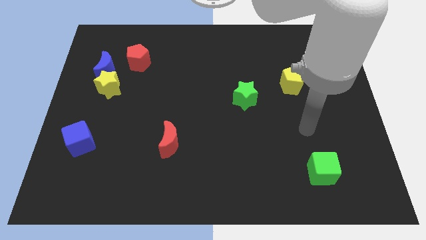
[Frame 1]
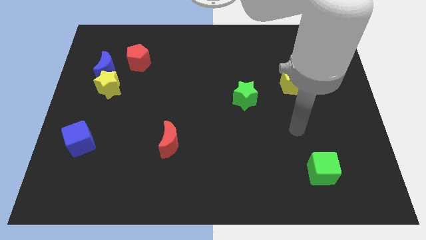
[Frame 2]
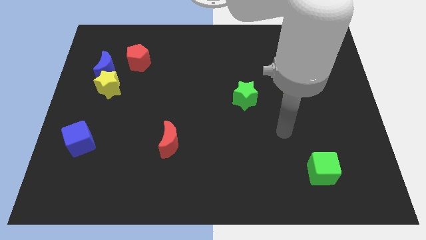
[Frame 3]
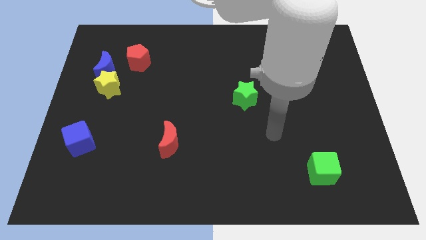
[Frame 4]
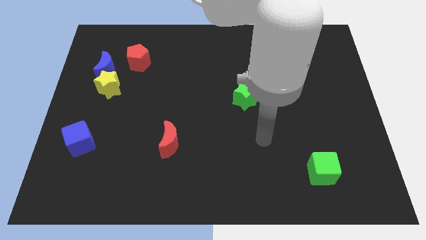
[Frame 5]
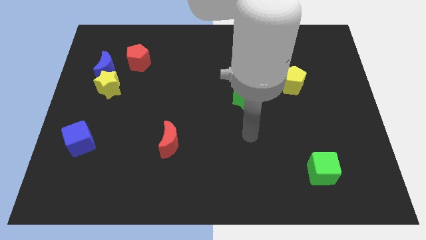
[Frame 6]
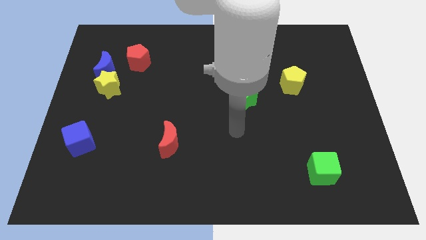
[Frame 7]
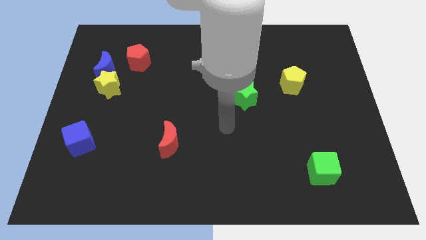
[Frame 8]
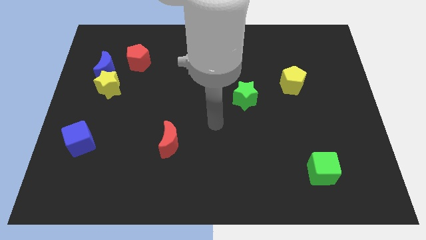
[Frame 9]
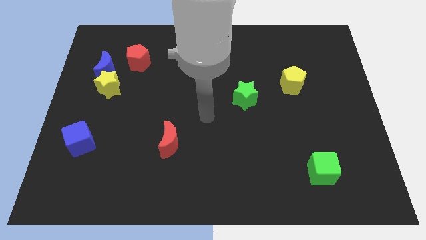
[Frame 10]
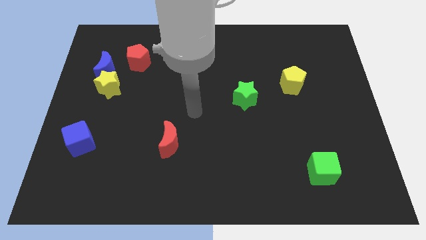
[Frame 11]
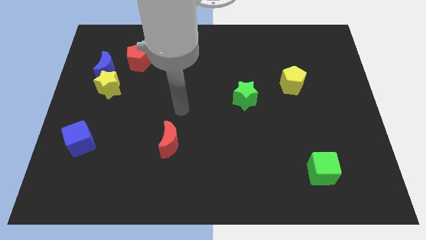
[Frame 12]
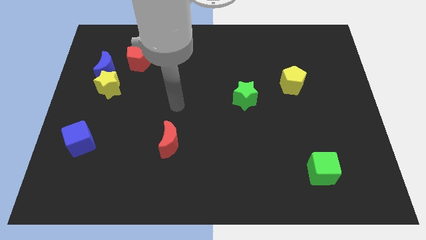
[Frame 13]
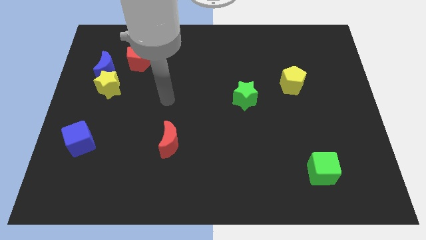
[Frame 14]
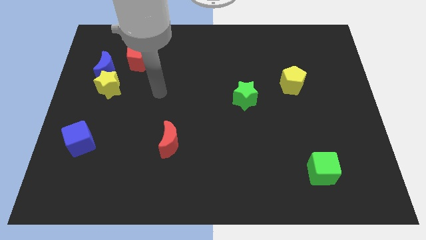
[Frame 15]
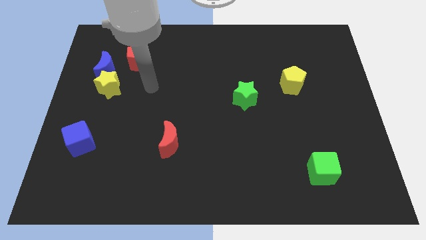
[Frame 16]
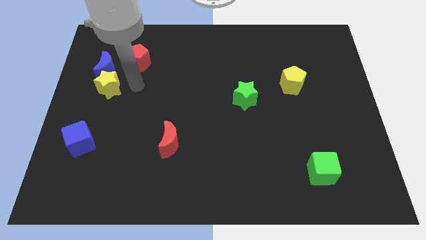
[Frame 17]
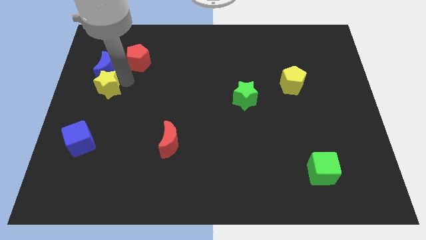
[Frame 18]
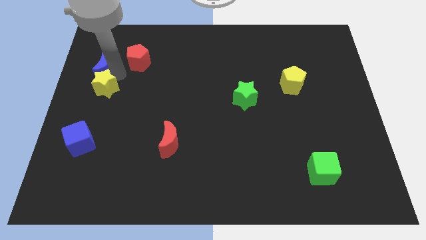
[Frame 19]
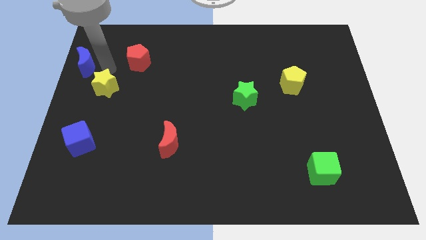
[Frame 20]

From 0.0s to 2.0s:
separate the yellow star from the blue moon

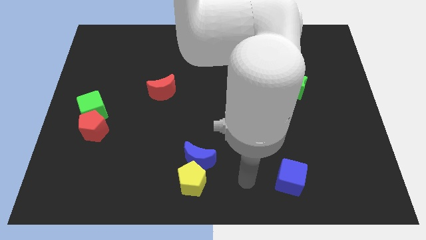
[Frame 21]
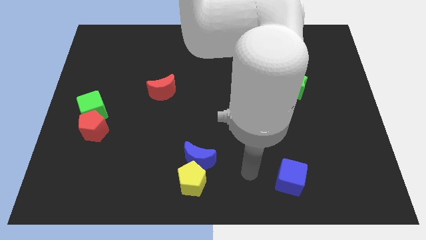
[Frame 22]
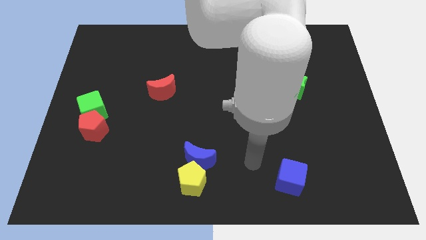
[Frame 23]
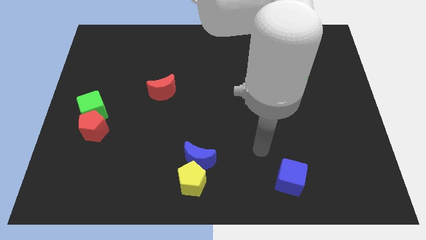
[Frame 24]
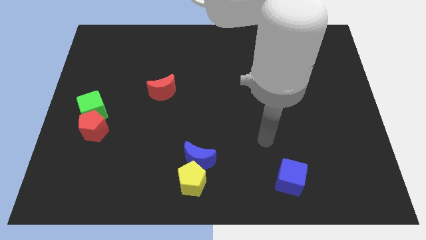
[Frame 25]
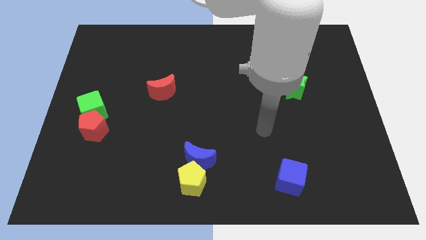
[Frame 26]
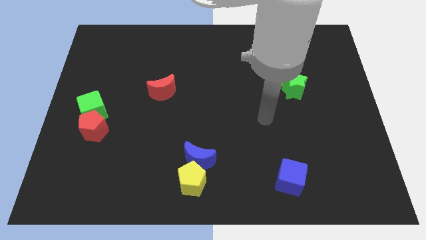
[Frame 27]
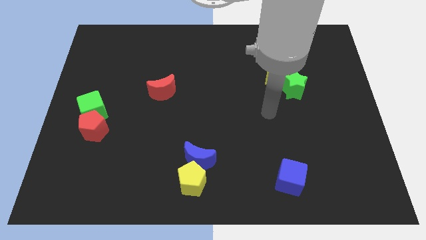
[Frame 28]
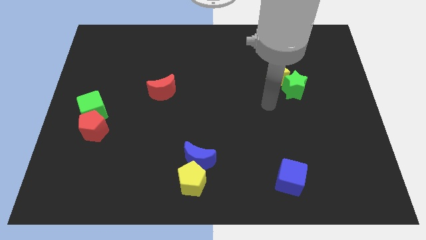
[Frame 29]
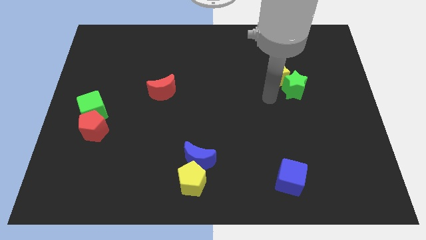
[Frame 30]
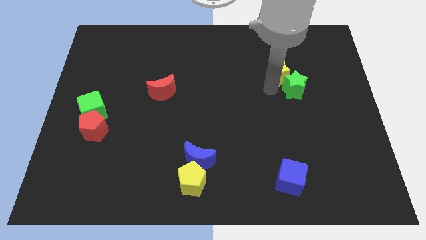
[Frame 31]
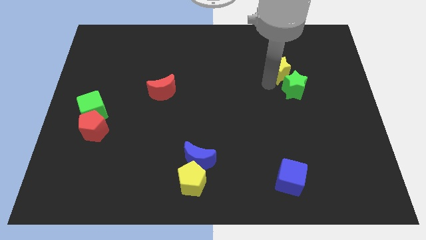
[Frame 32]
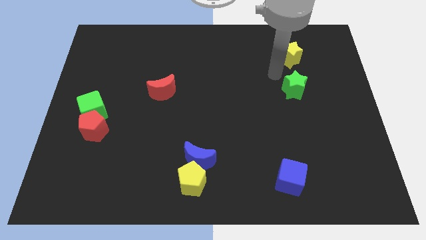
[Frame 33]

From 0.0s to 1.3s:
separate the green star from the yellow star

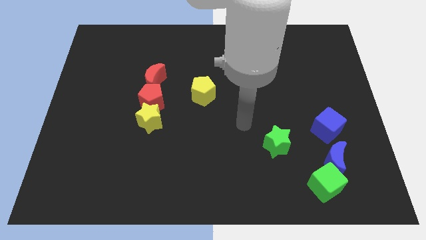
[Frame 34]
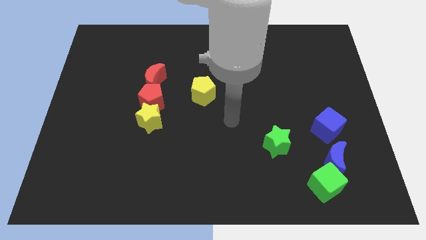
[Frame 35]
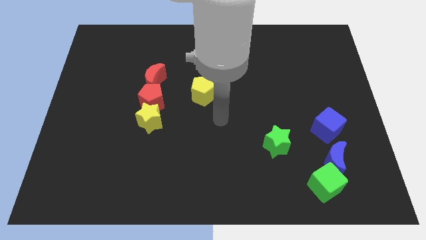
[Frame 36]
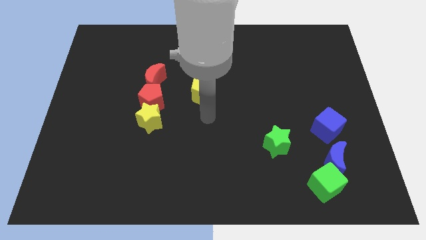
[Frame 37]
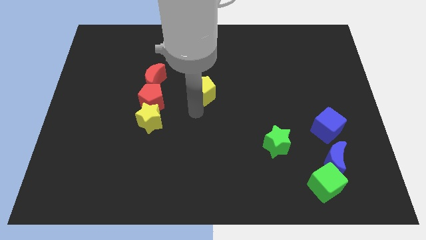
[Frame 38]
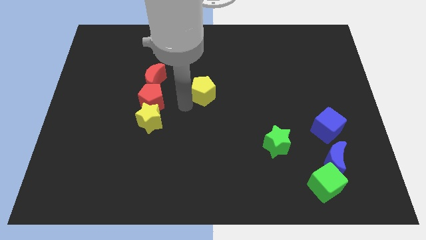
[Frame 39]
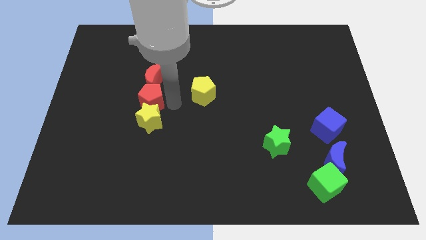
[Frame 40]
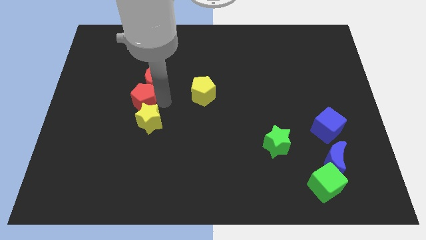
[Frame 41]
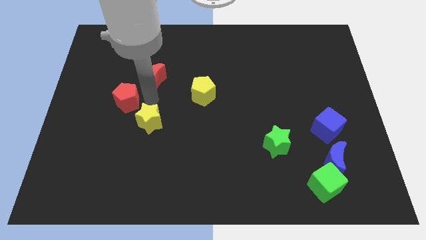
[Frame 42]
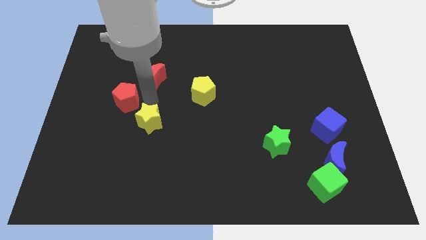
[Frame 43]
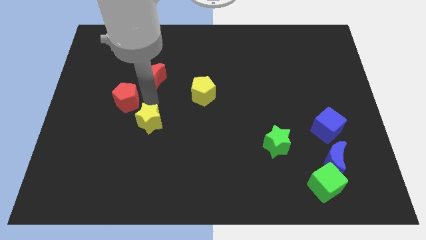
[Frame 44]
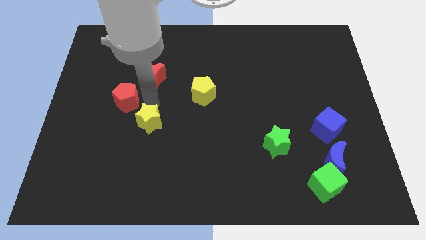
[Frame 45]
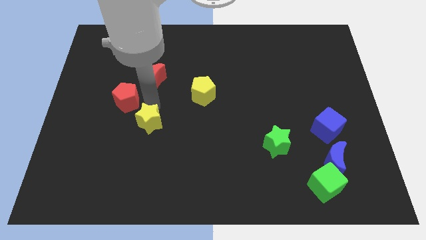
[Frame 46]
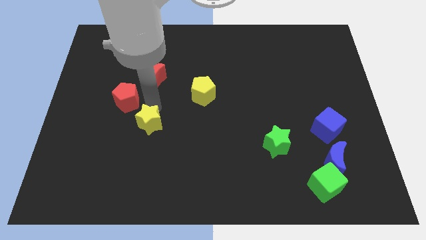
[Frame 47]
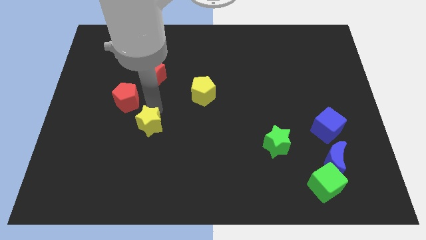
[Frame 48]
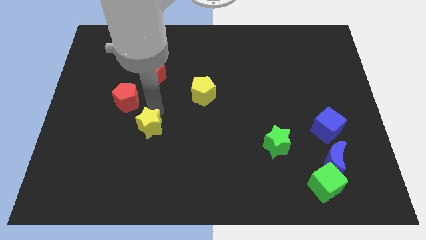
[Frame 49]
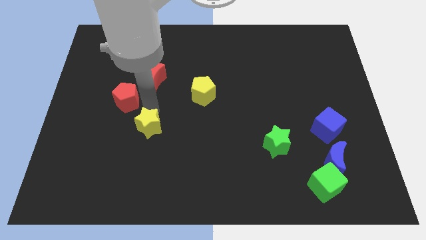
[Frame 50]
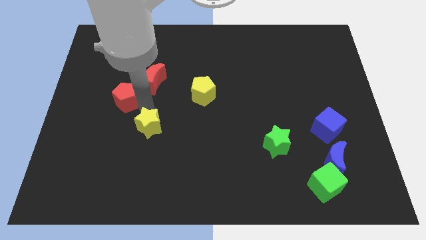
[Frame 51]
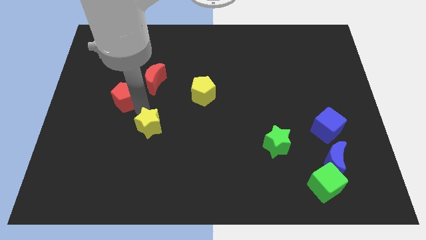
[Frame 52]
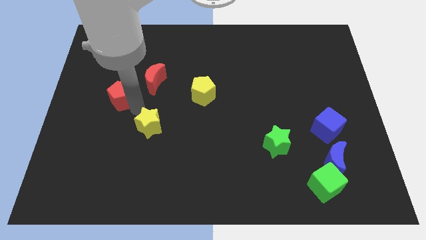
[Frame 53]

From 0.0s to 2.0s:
separate the yellow star from the red pentagon

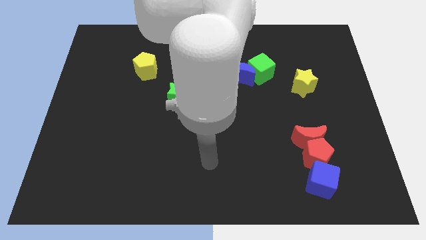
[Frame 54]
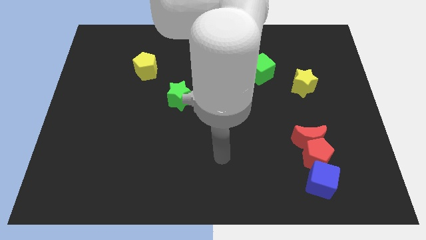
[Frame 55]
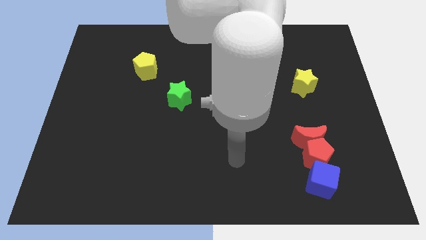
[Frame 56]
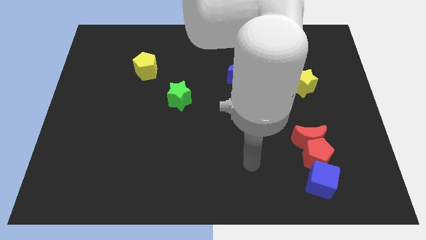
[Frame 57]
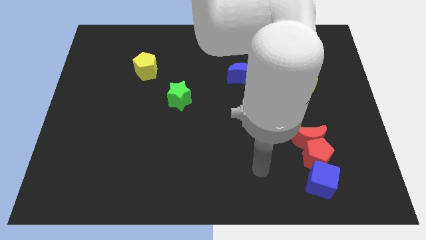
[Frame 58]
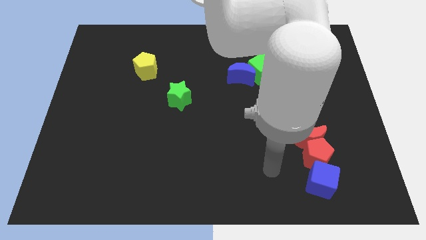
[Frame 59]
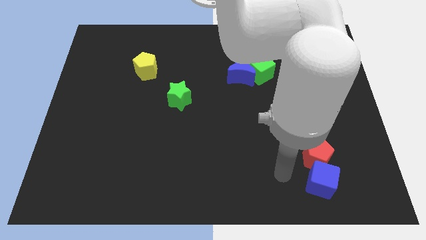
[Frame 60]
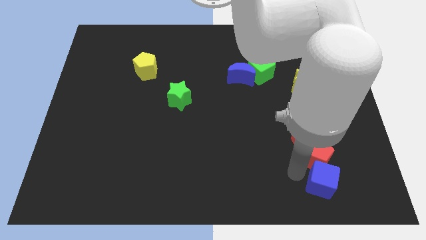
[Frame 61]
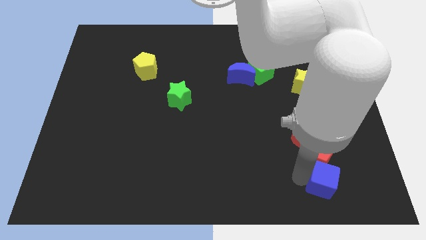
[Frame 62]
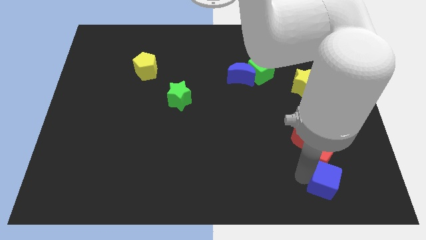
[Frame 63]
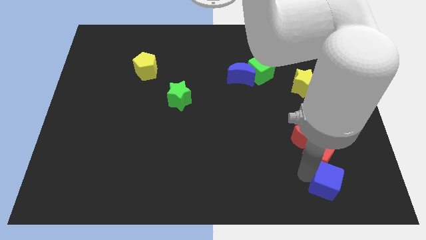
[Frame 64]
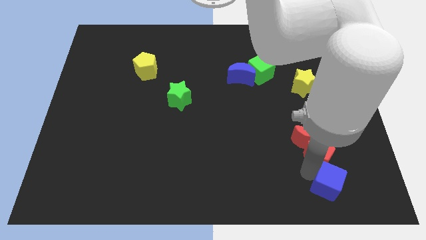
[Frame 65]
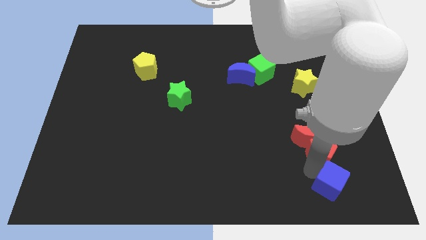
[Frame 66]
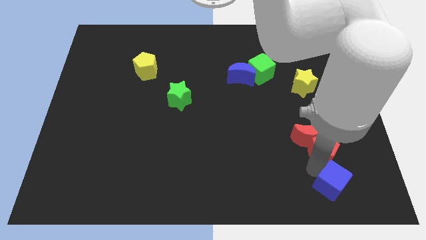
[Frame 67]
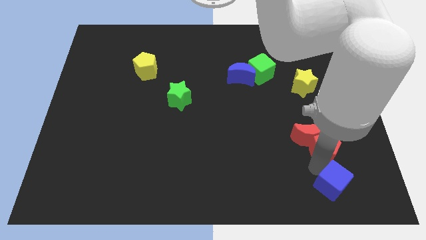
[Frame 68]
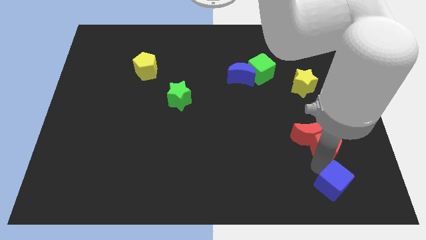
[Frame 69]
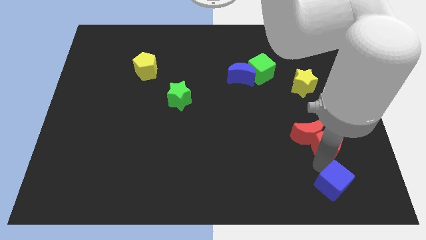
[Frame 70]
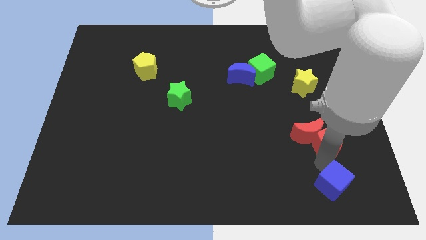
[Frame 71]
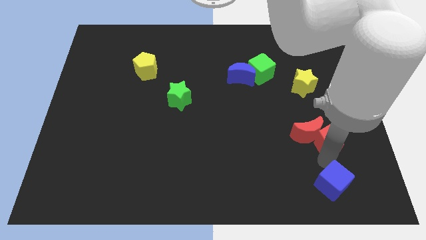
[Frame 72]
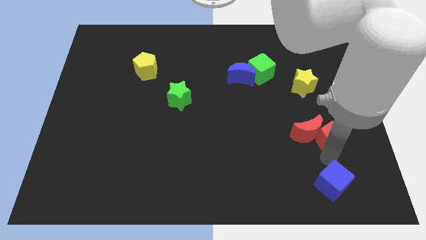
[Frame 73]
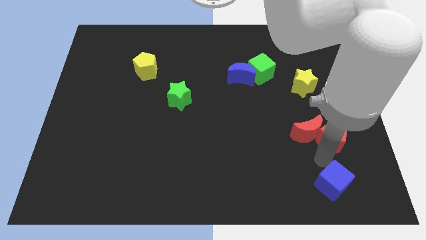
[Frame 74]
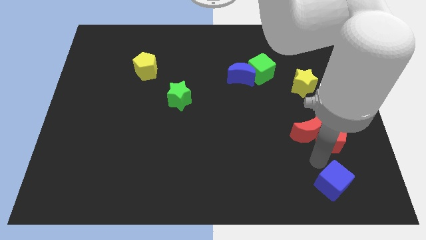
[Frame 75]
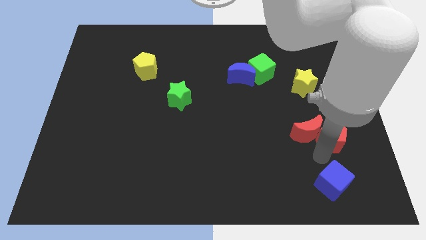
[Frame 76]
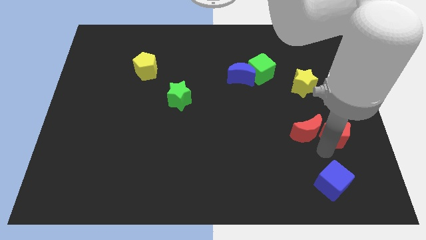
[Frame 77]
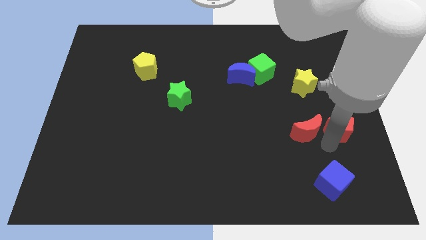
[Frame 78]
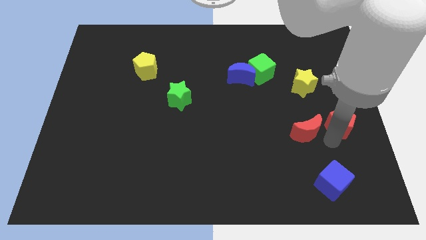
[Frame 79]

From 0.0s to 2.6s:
separate the red pentagon from the red moon and blue cube

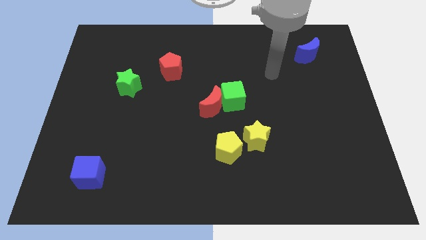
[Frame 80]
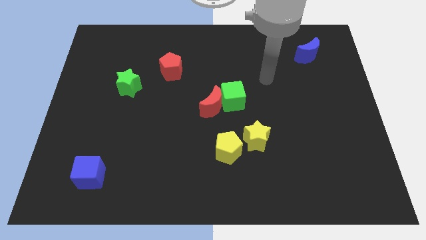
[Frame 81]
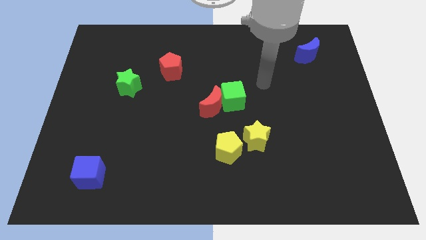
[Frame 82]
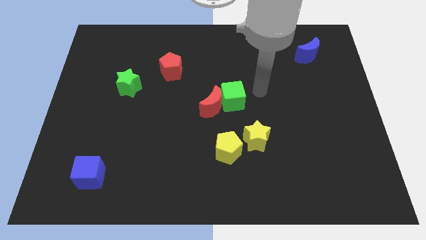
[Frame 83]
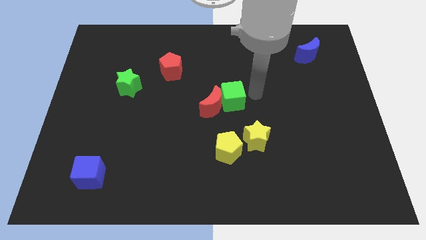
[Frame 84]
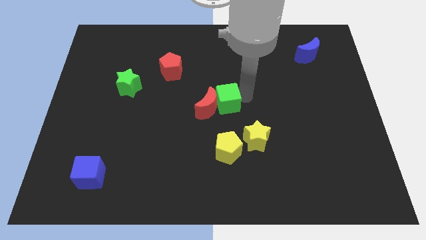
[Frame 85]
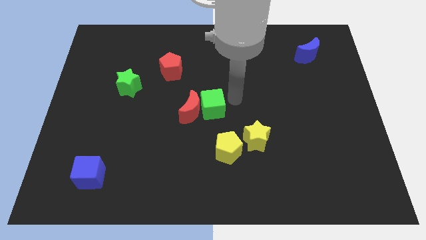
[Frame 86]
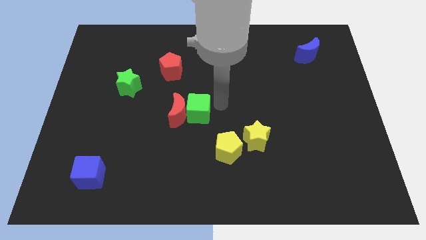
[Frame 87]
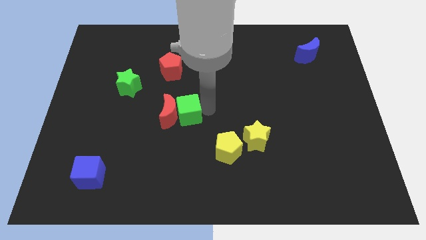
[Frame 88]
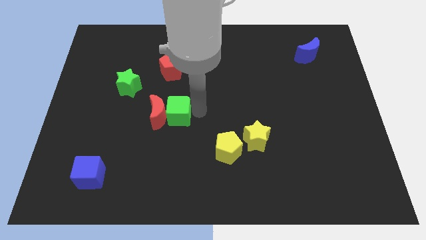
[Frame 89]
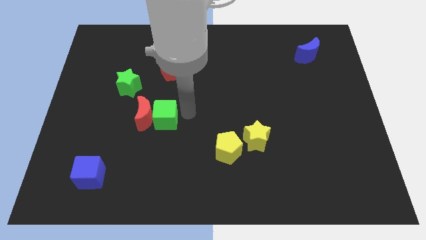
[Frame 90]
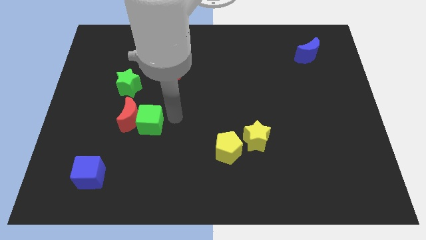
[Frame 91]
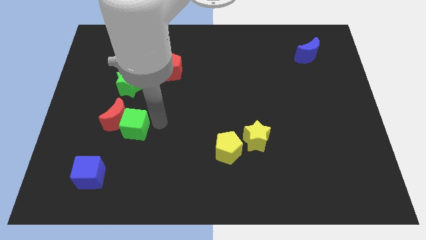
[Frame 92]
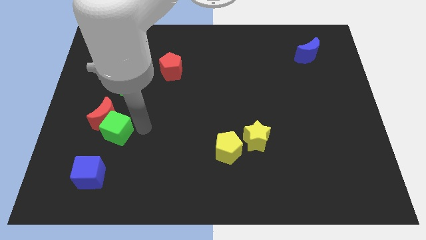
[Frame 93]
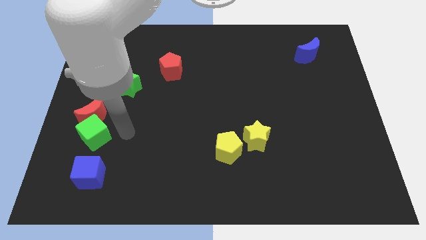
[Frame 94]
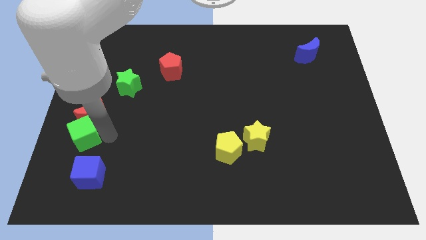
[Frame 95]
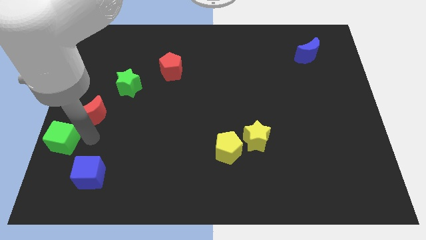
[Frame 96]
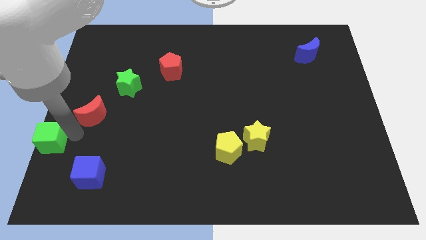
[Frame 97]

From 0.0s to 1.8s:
pull the red moon apart from the green cube
